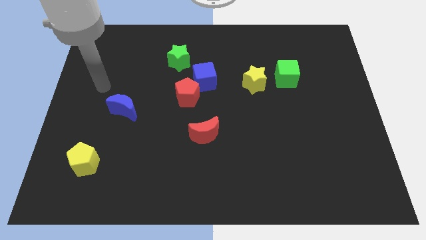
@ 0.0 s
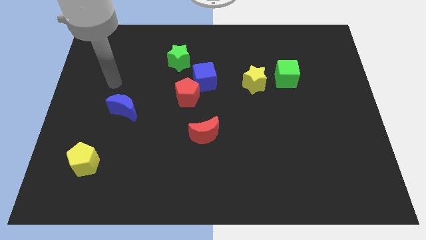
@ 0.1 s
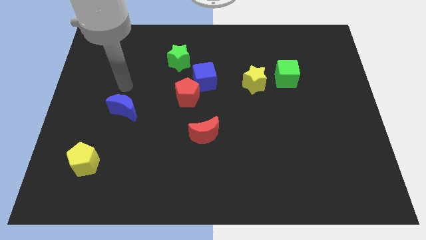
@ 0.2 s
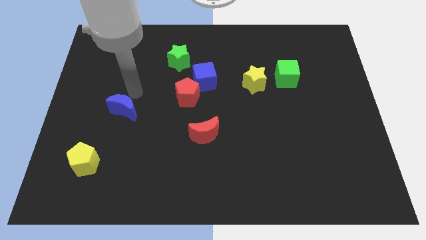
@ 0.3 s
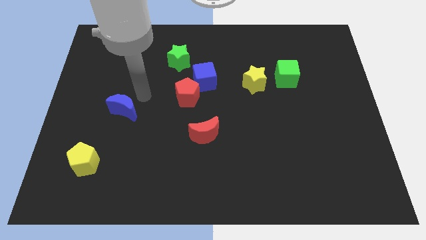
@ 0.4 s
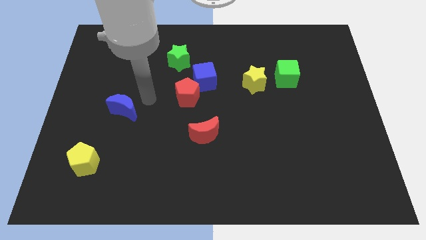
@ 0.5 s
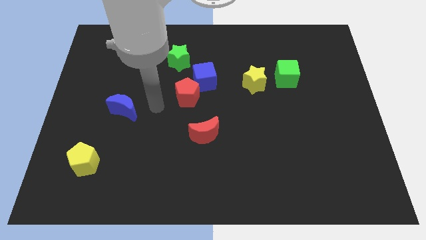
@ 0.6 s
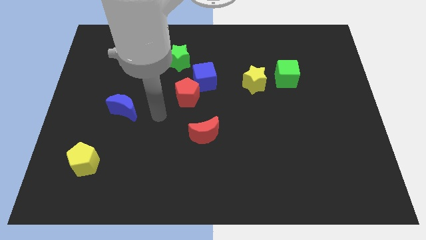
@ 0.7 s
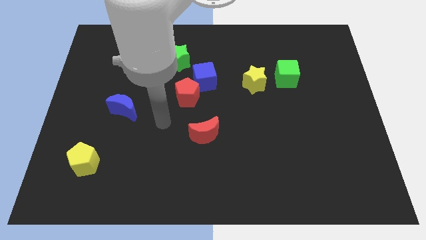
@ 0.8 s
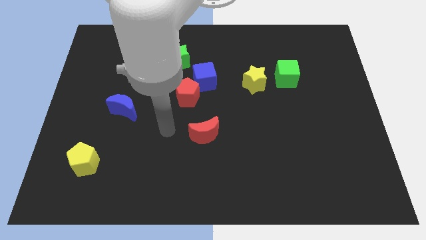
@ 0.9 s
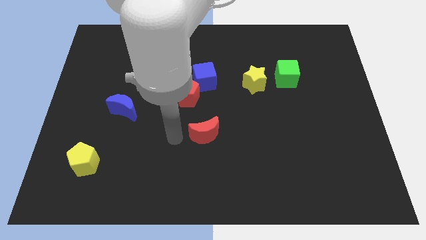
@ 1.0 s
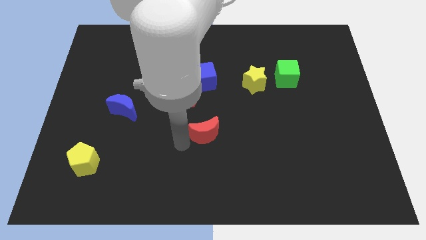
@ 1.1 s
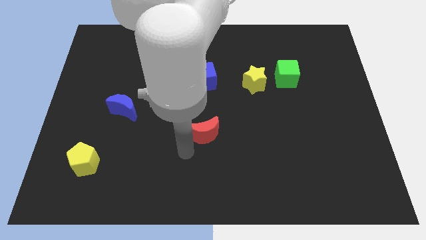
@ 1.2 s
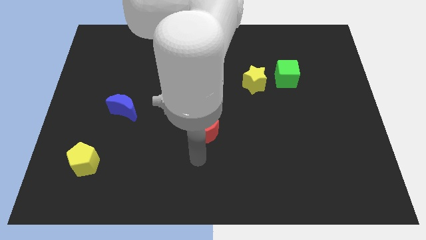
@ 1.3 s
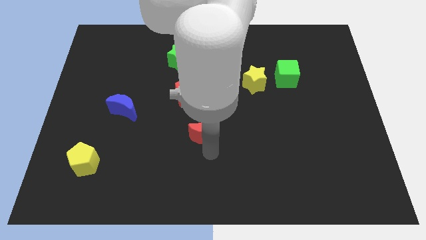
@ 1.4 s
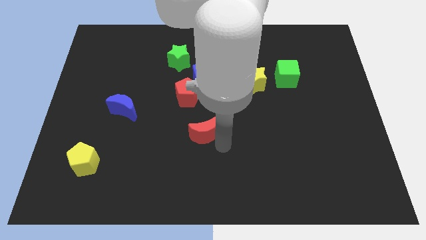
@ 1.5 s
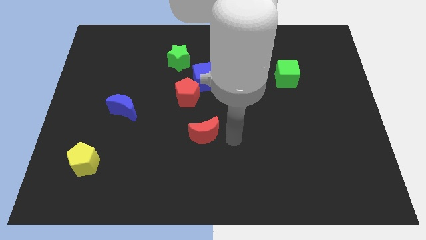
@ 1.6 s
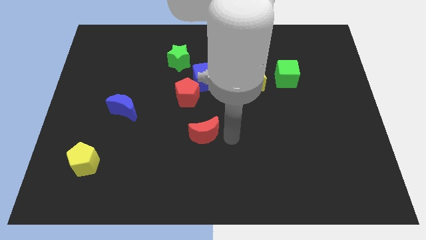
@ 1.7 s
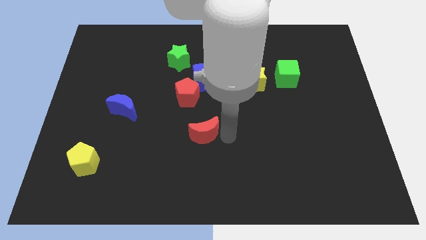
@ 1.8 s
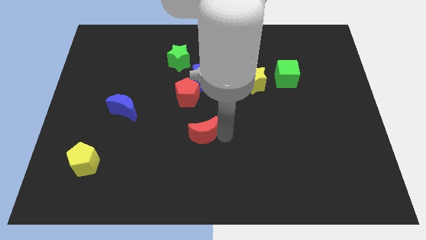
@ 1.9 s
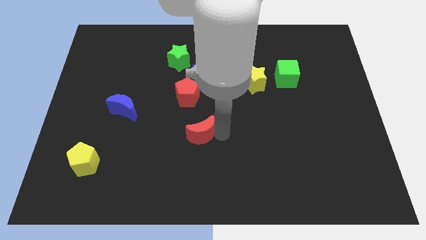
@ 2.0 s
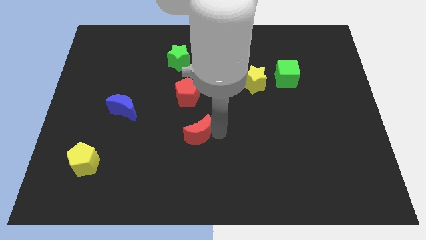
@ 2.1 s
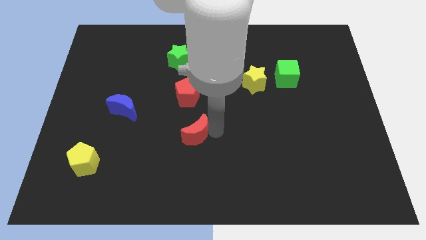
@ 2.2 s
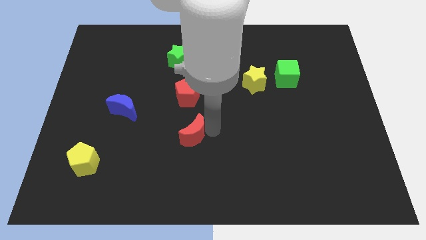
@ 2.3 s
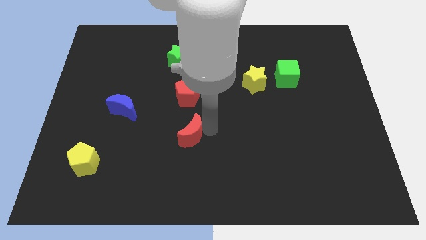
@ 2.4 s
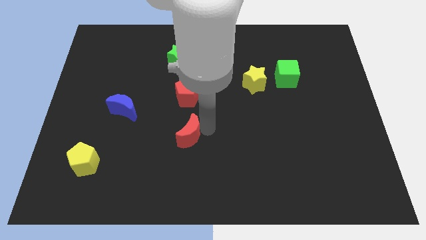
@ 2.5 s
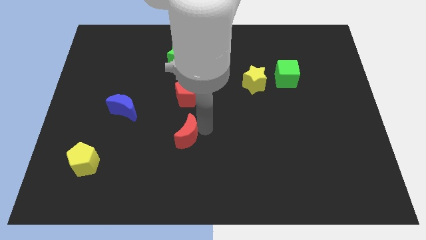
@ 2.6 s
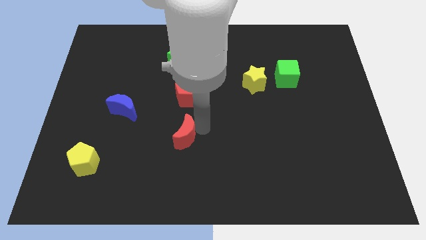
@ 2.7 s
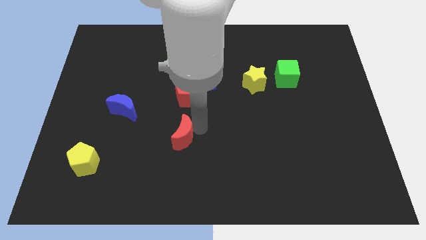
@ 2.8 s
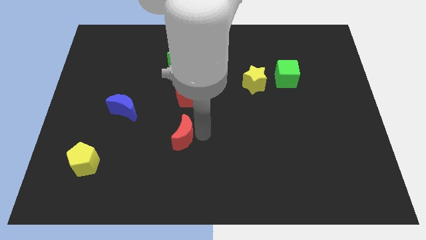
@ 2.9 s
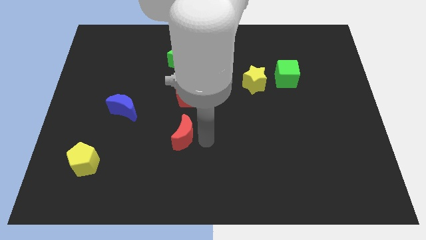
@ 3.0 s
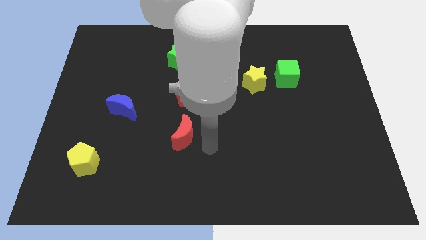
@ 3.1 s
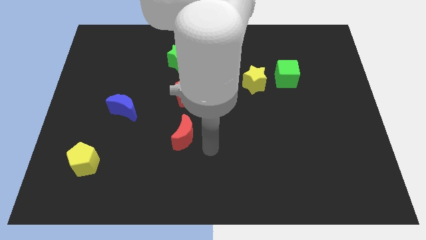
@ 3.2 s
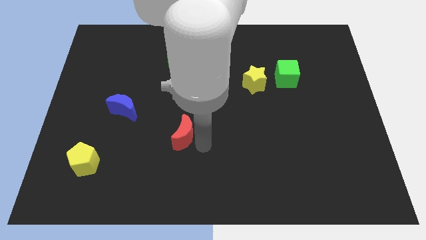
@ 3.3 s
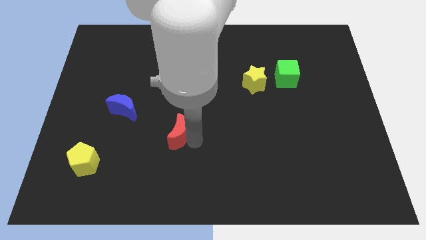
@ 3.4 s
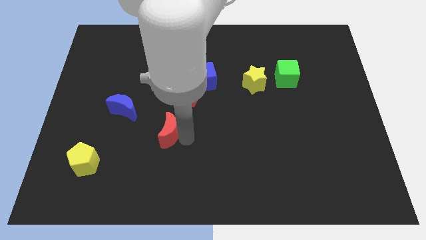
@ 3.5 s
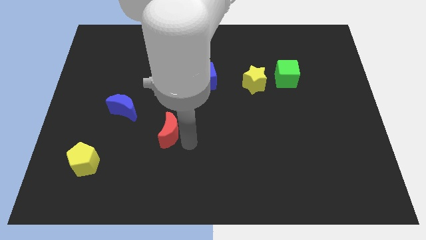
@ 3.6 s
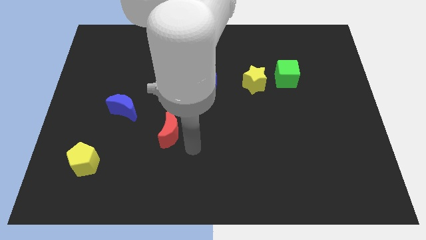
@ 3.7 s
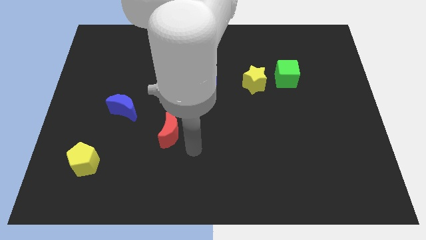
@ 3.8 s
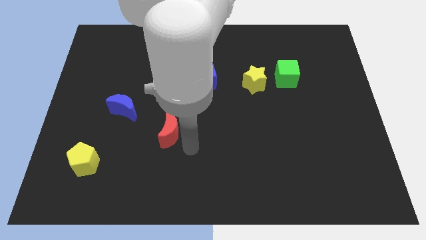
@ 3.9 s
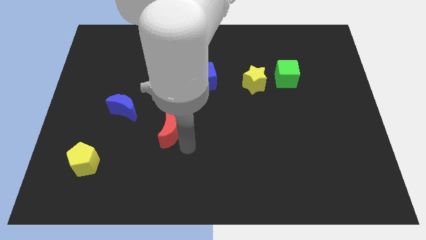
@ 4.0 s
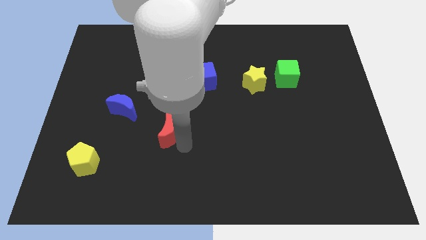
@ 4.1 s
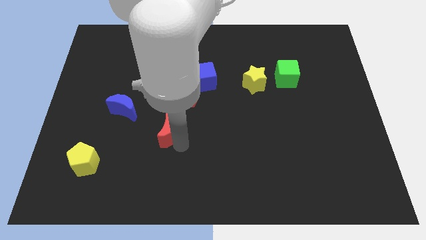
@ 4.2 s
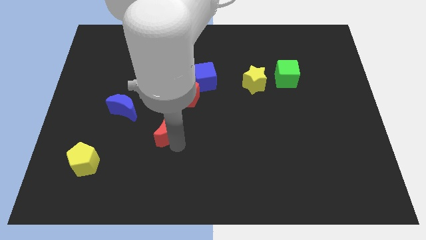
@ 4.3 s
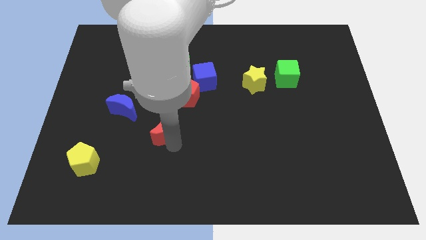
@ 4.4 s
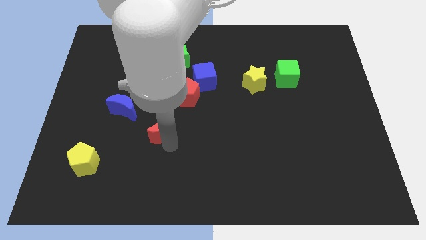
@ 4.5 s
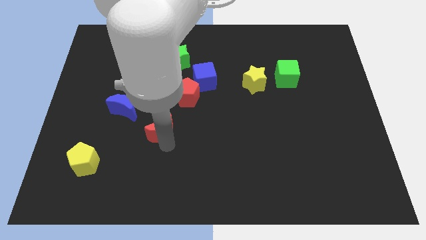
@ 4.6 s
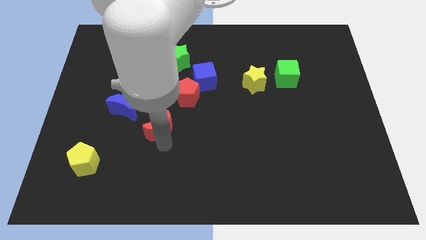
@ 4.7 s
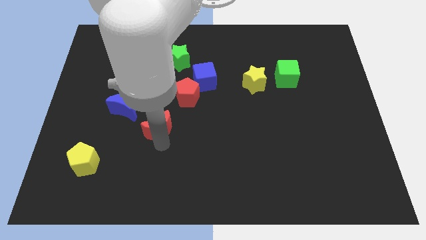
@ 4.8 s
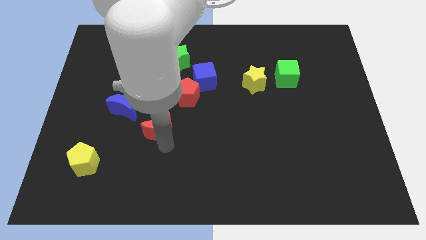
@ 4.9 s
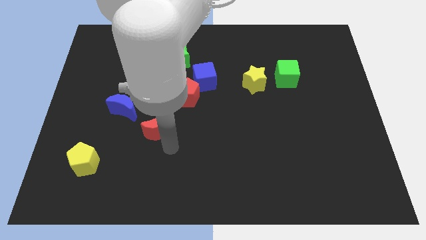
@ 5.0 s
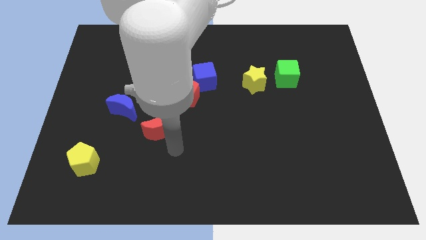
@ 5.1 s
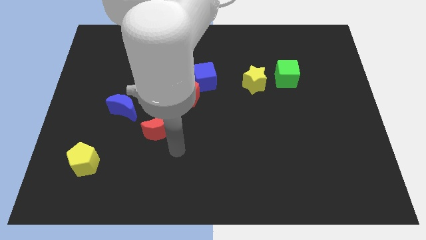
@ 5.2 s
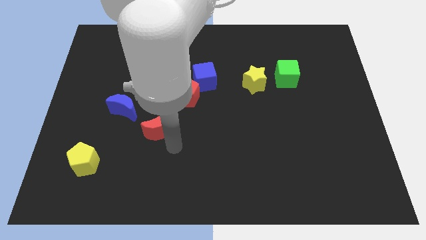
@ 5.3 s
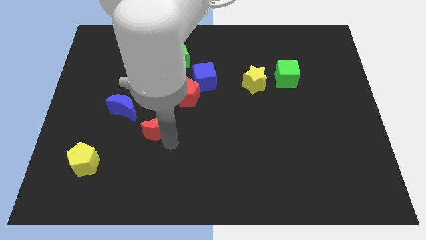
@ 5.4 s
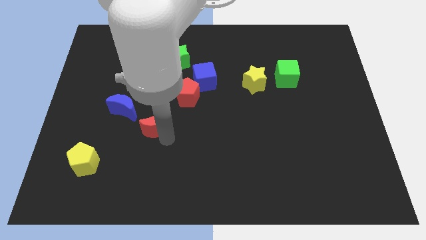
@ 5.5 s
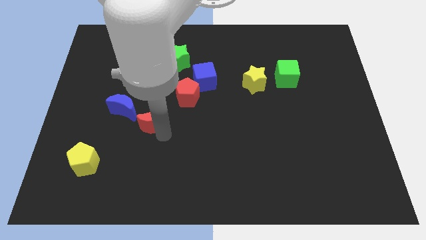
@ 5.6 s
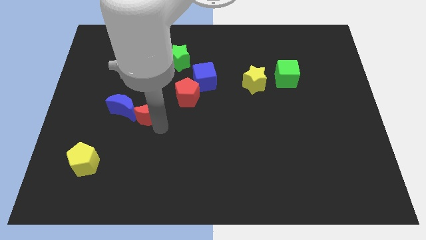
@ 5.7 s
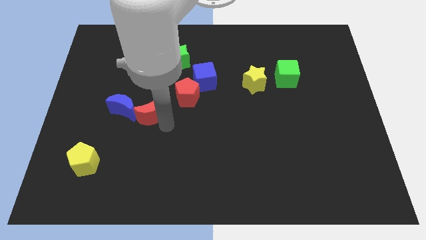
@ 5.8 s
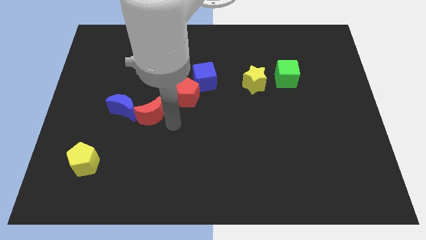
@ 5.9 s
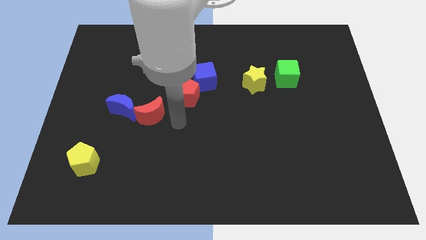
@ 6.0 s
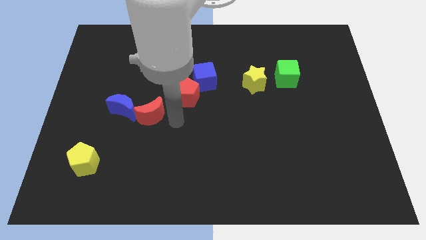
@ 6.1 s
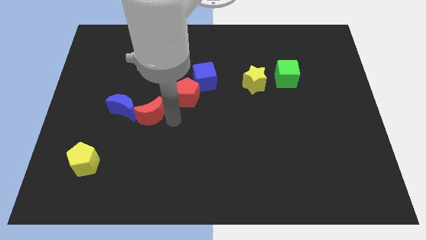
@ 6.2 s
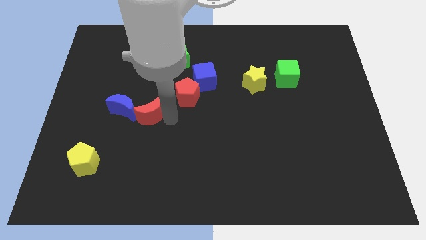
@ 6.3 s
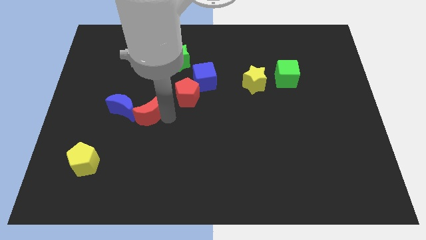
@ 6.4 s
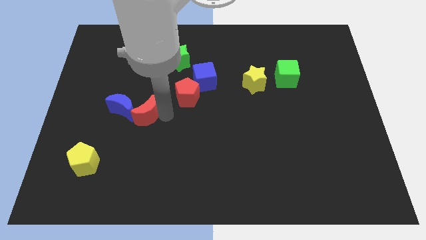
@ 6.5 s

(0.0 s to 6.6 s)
move the red moon to the blue moon
